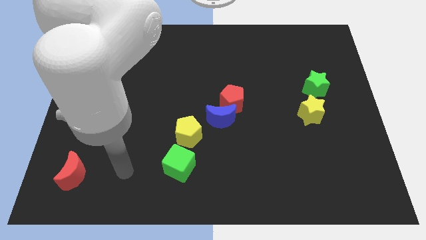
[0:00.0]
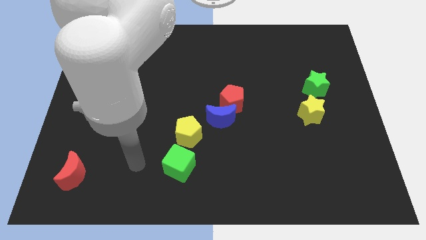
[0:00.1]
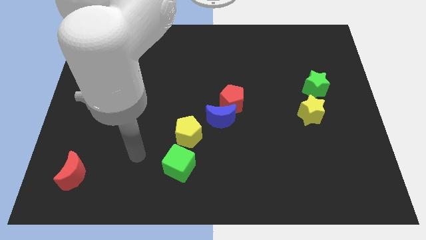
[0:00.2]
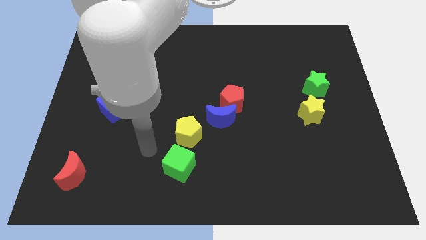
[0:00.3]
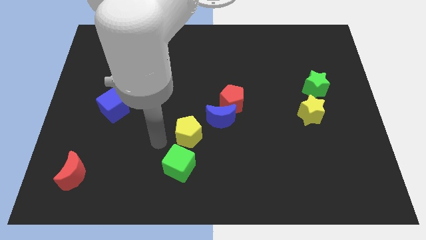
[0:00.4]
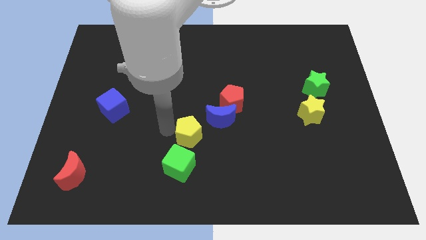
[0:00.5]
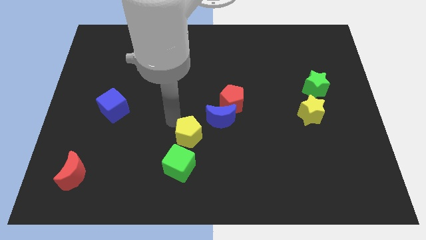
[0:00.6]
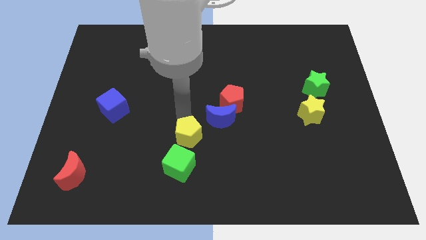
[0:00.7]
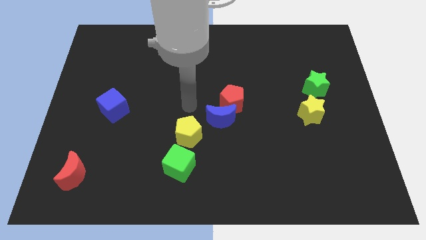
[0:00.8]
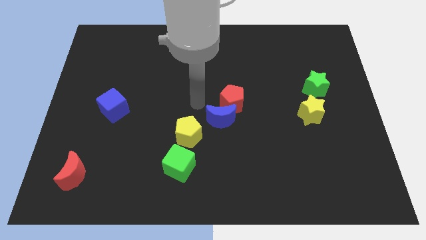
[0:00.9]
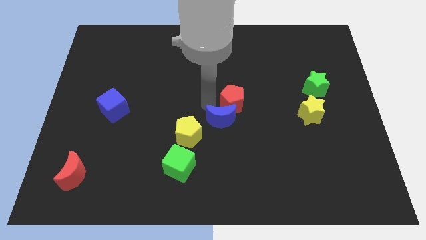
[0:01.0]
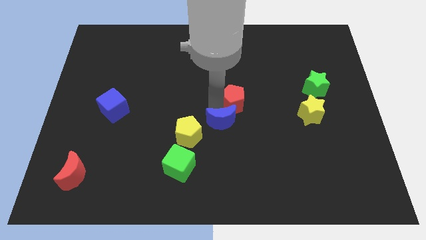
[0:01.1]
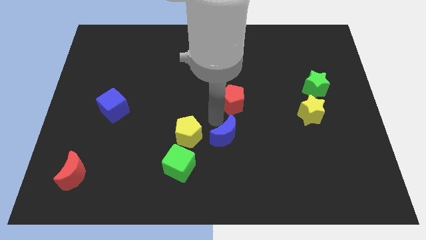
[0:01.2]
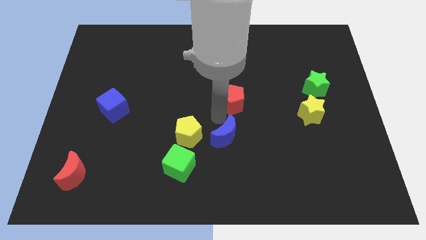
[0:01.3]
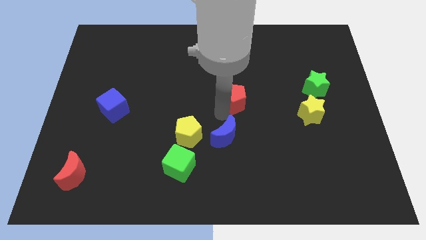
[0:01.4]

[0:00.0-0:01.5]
pull the red pentagon apart from the blue moon

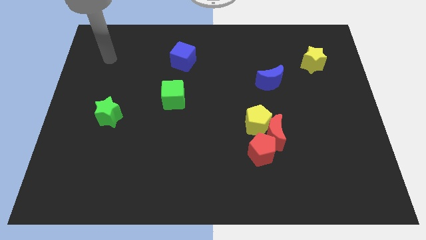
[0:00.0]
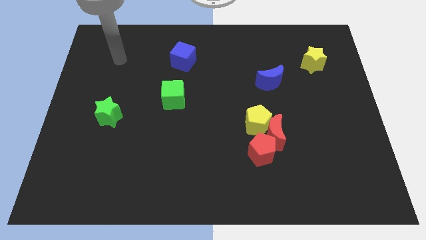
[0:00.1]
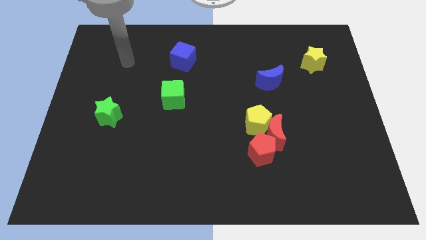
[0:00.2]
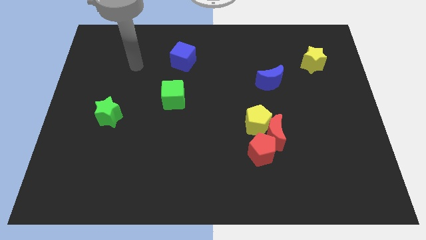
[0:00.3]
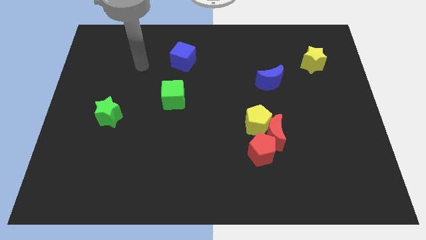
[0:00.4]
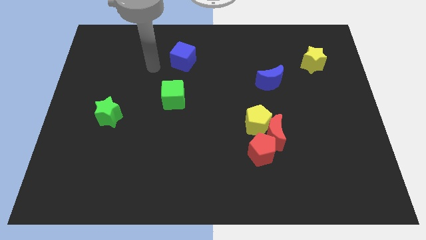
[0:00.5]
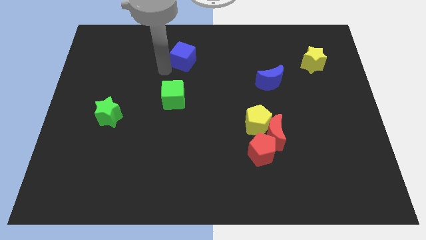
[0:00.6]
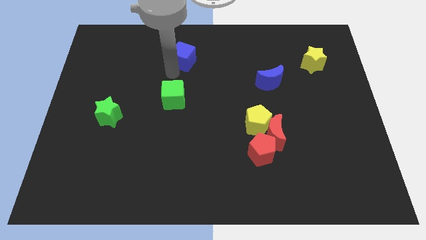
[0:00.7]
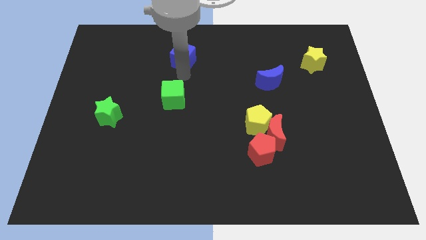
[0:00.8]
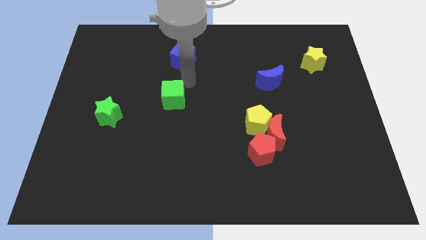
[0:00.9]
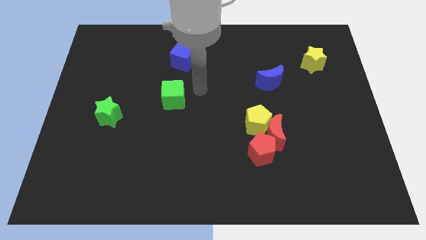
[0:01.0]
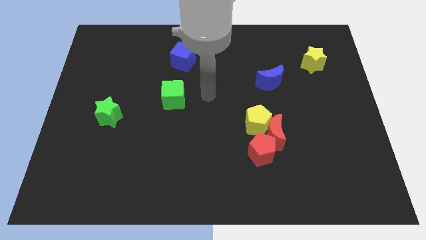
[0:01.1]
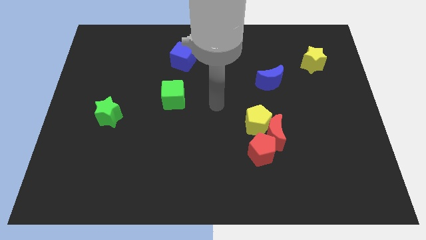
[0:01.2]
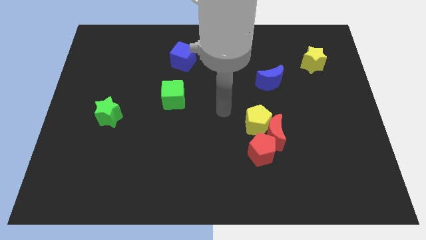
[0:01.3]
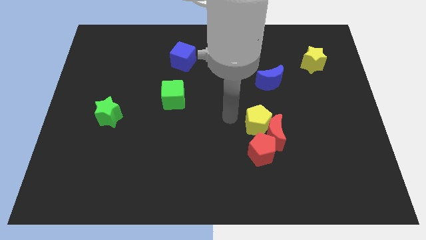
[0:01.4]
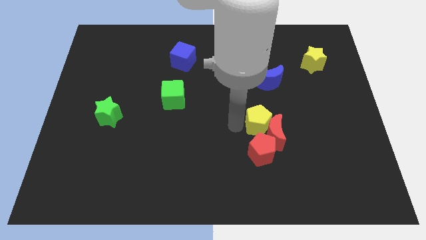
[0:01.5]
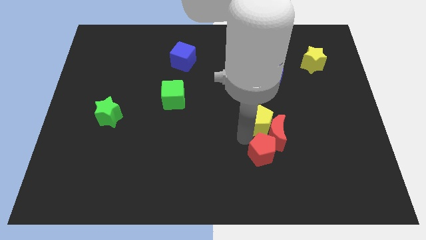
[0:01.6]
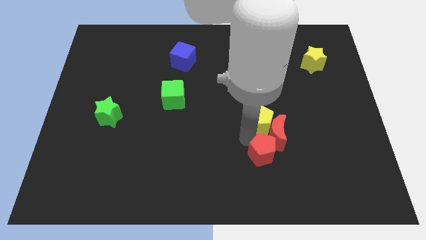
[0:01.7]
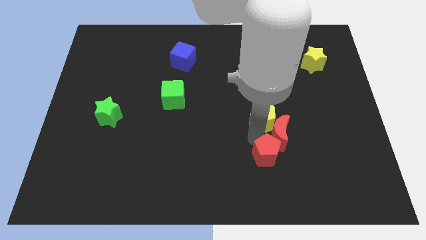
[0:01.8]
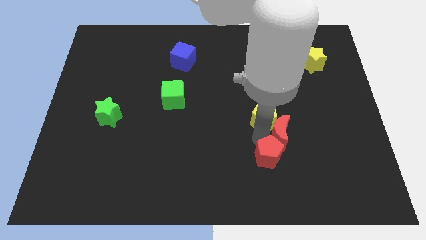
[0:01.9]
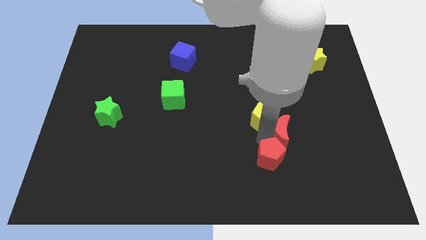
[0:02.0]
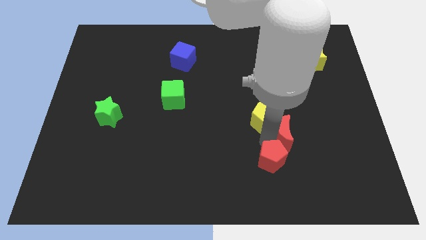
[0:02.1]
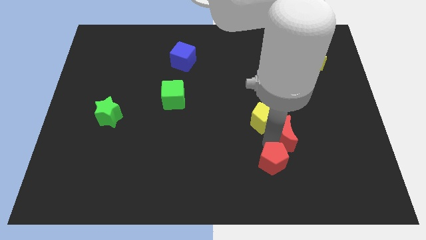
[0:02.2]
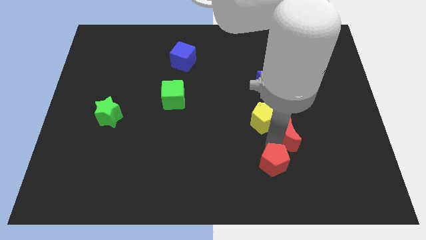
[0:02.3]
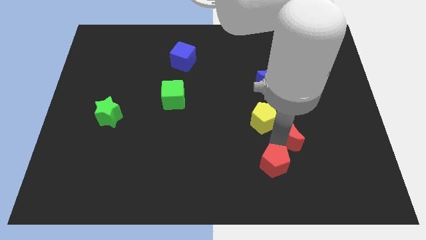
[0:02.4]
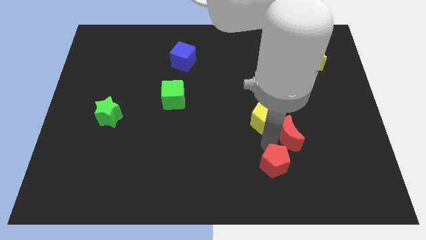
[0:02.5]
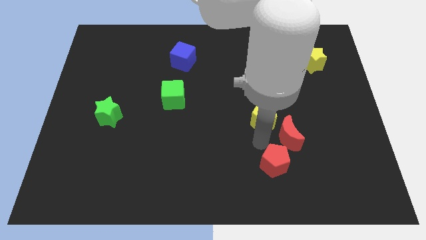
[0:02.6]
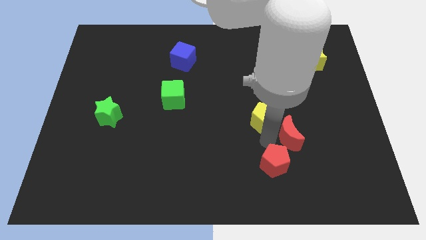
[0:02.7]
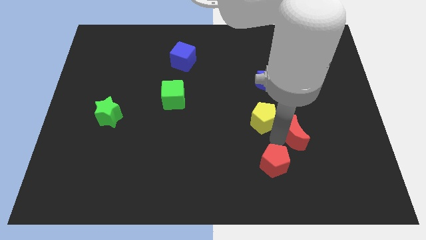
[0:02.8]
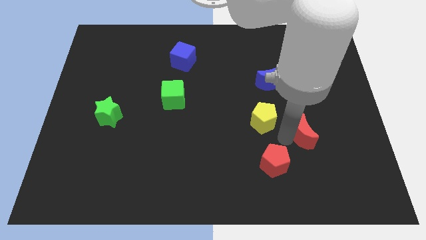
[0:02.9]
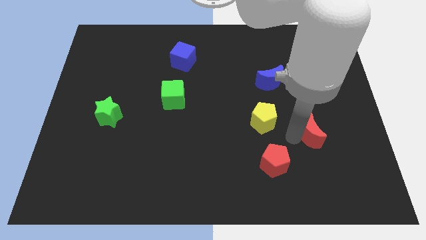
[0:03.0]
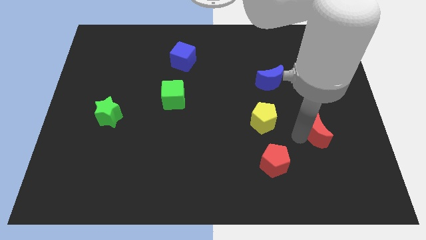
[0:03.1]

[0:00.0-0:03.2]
move the red moon away from the yellow pentagon and red pentagon

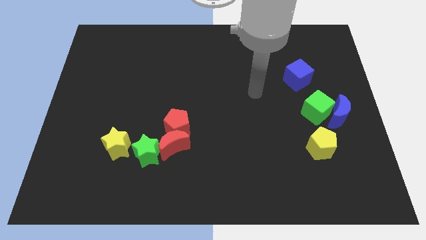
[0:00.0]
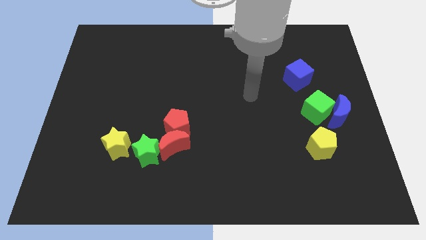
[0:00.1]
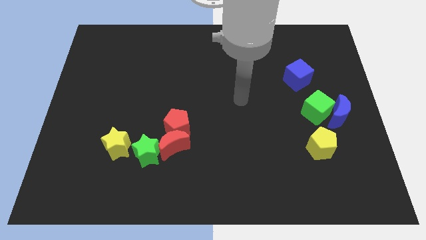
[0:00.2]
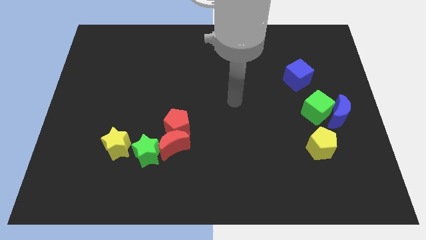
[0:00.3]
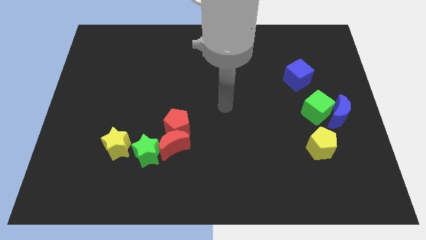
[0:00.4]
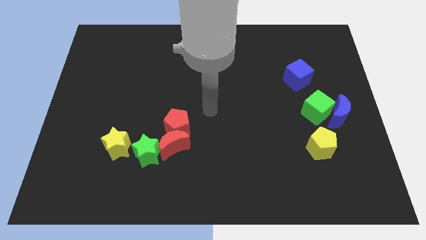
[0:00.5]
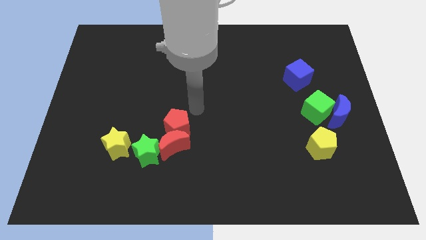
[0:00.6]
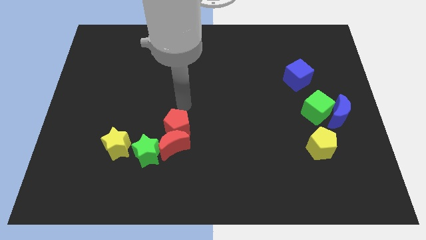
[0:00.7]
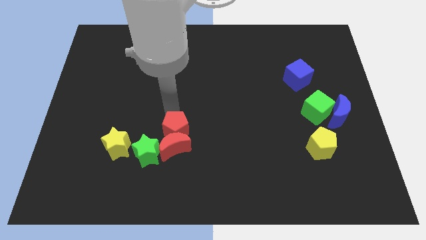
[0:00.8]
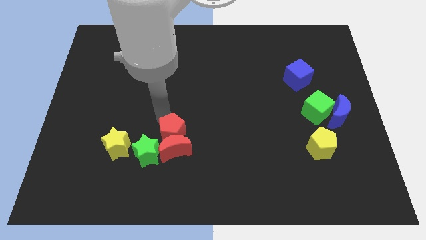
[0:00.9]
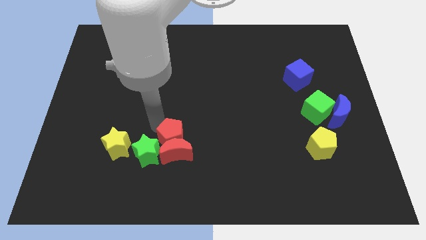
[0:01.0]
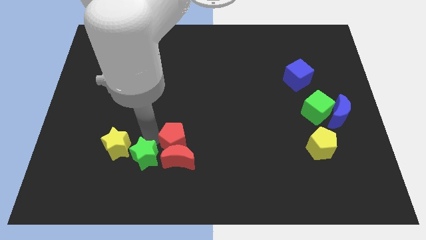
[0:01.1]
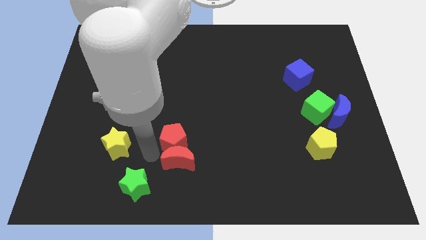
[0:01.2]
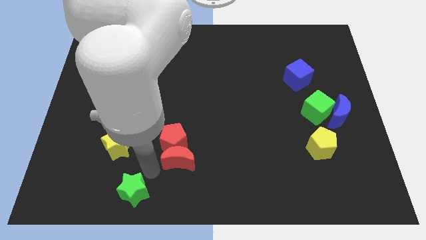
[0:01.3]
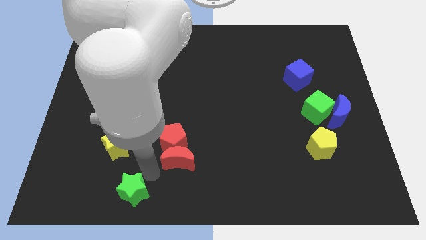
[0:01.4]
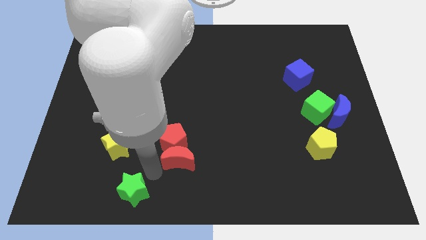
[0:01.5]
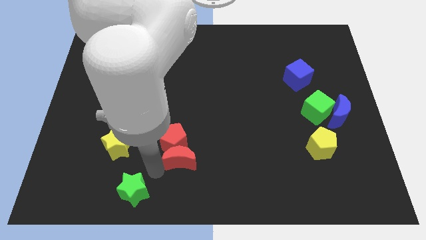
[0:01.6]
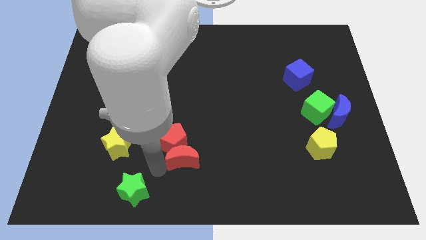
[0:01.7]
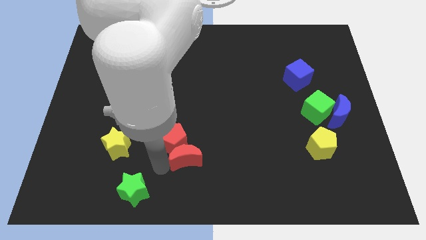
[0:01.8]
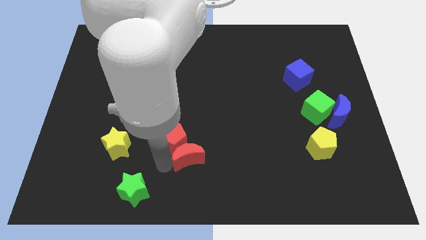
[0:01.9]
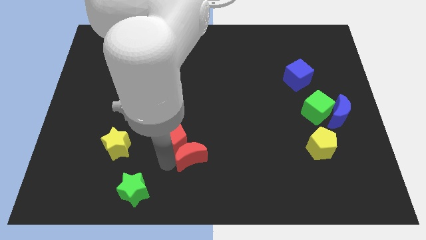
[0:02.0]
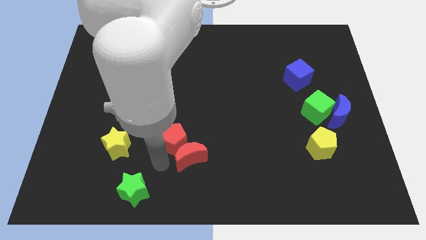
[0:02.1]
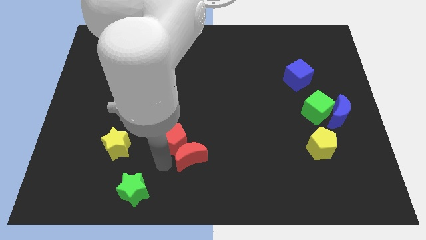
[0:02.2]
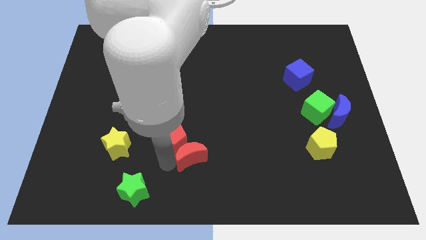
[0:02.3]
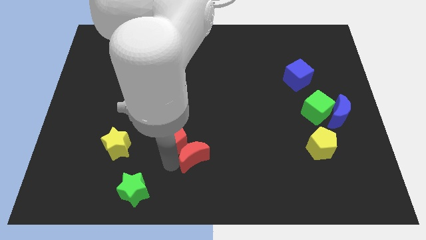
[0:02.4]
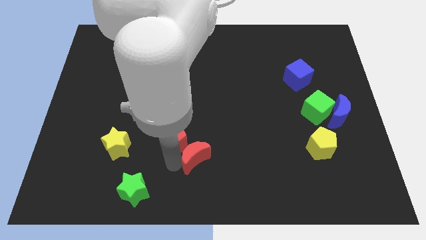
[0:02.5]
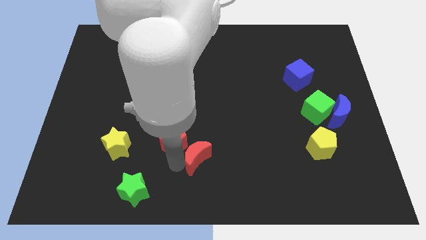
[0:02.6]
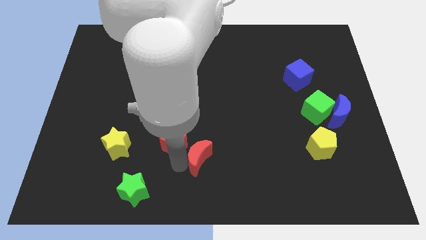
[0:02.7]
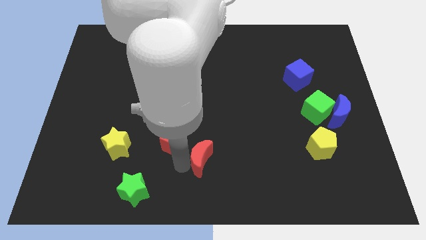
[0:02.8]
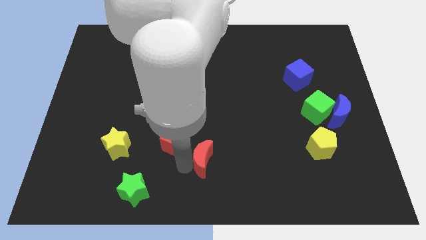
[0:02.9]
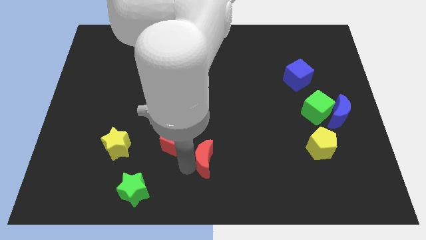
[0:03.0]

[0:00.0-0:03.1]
pull the red moon apart from the red pentagon and green star

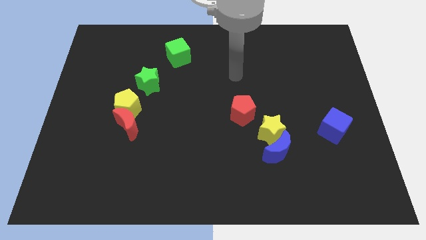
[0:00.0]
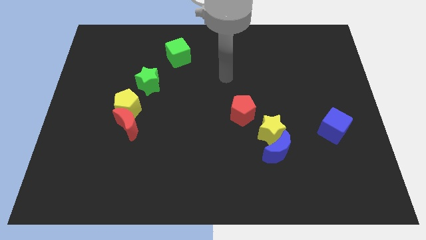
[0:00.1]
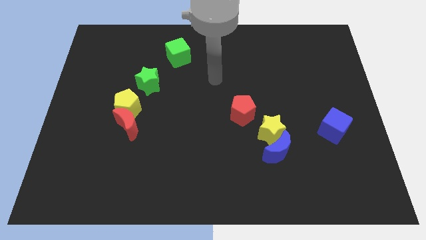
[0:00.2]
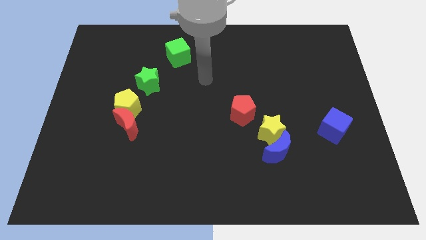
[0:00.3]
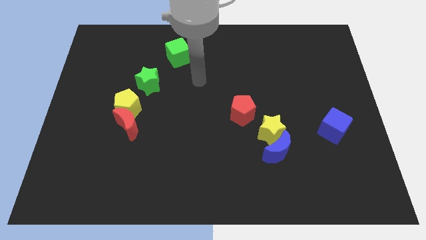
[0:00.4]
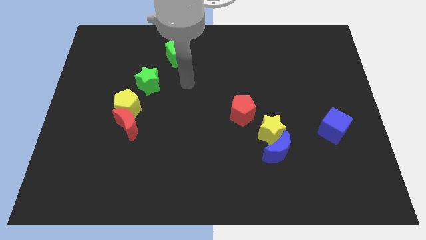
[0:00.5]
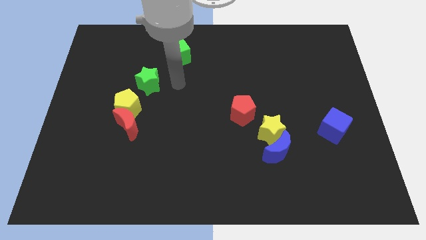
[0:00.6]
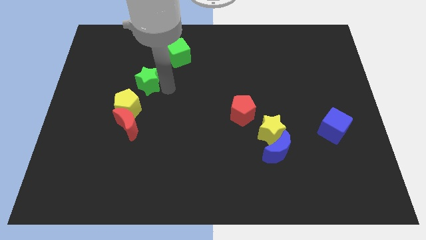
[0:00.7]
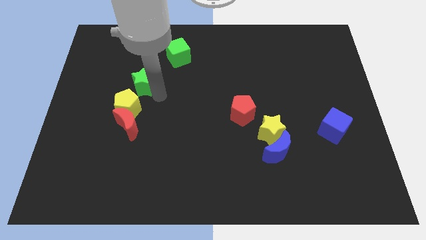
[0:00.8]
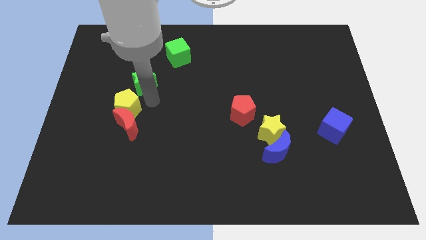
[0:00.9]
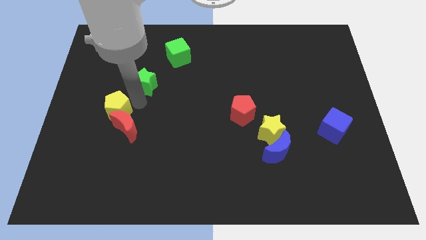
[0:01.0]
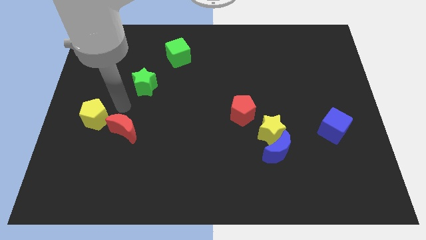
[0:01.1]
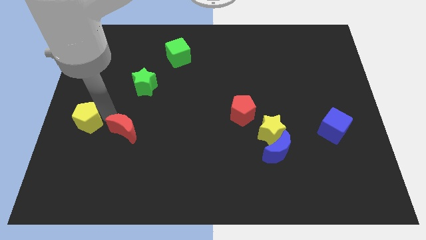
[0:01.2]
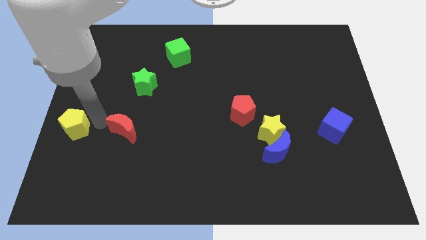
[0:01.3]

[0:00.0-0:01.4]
pull the red moon apart from the yellow pentagon

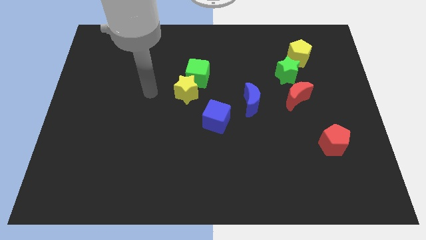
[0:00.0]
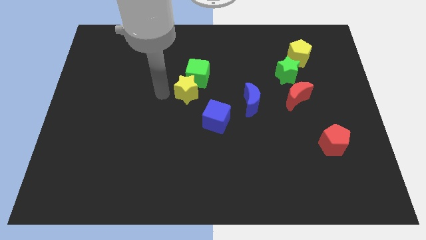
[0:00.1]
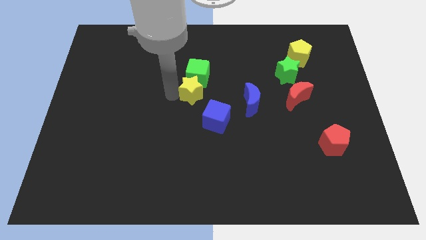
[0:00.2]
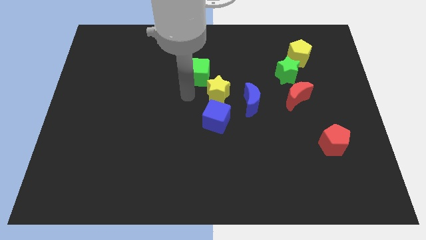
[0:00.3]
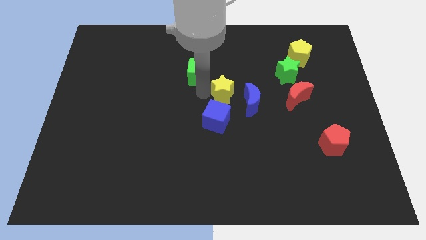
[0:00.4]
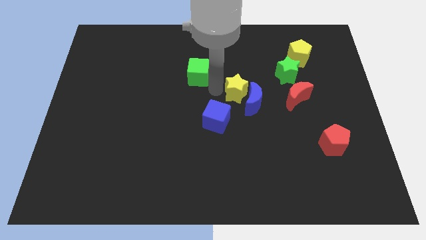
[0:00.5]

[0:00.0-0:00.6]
pull the green cube apart from the yellow star
